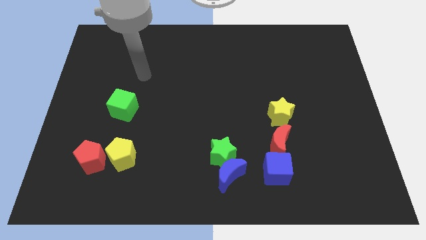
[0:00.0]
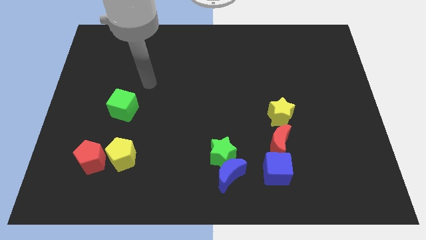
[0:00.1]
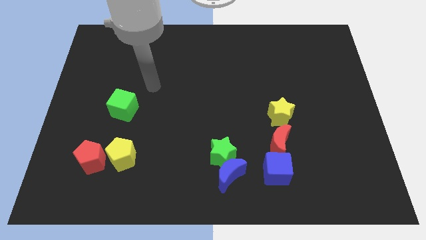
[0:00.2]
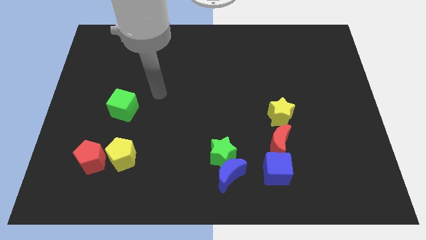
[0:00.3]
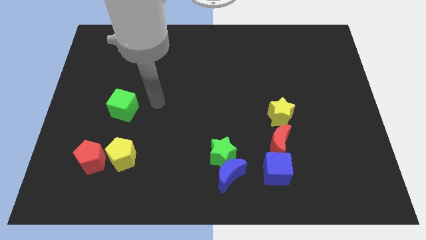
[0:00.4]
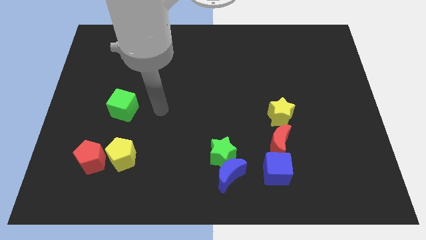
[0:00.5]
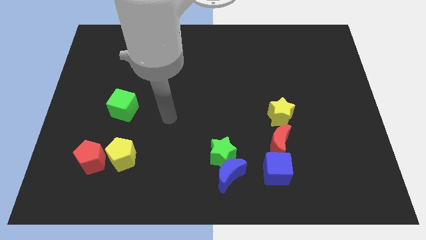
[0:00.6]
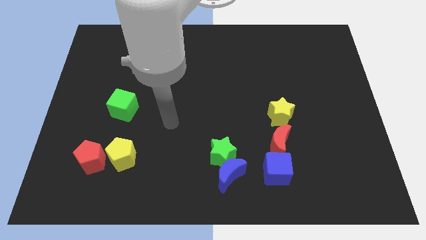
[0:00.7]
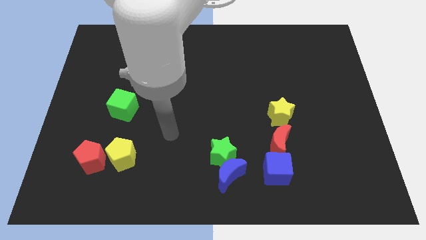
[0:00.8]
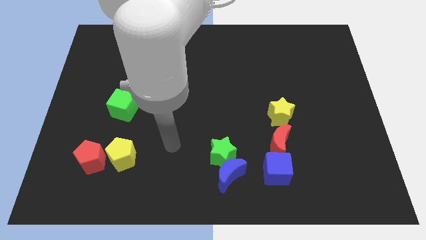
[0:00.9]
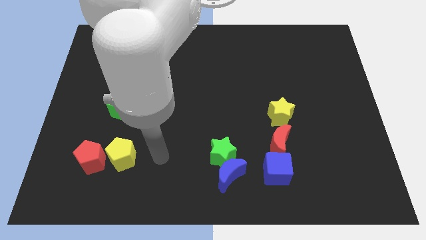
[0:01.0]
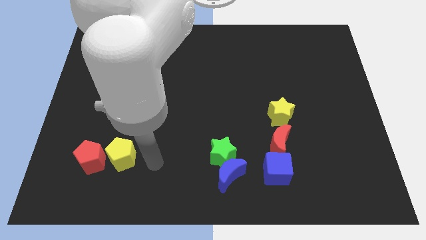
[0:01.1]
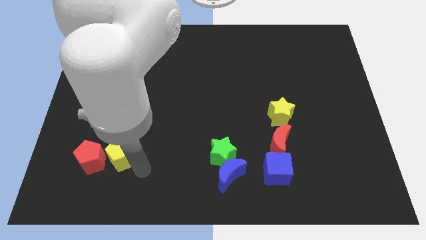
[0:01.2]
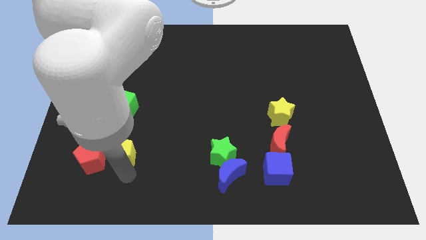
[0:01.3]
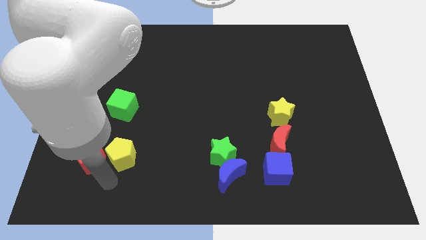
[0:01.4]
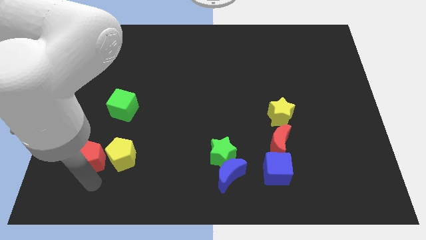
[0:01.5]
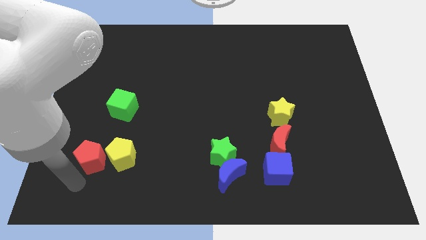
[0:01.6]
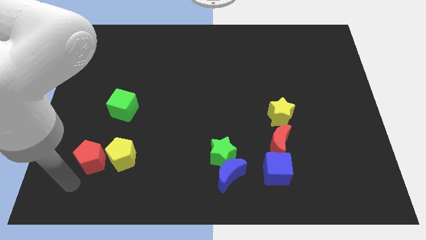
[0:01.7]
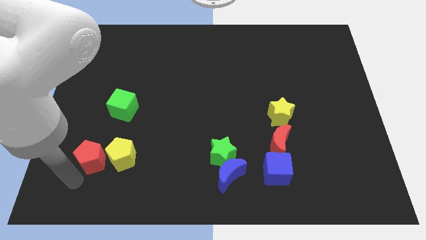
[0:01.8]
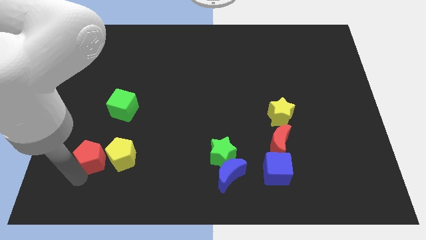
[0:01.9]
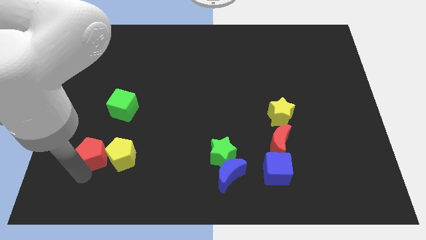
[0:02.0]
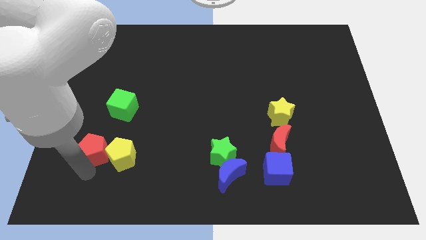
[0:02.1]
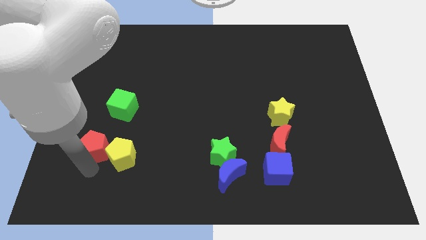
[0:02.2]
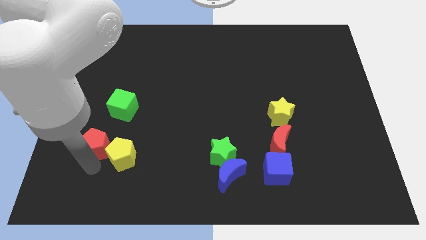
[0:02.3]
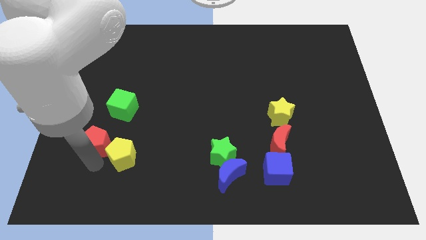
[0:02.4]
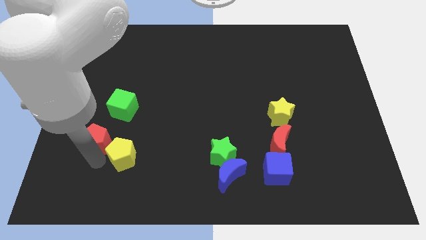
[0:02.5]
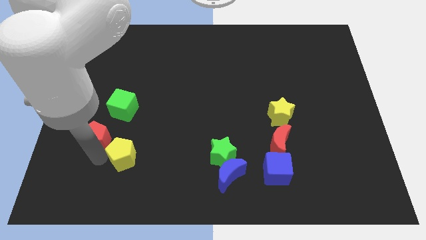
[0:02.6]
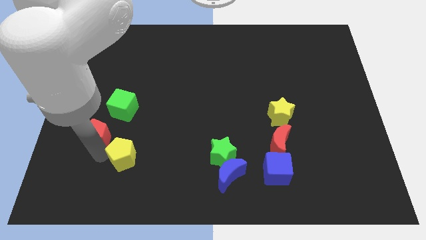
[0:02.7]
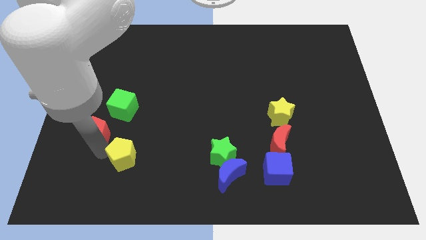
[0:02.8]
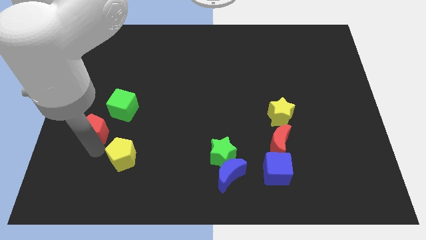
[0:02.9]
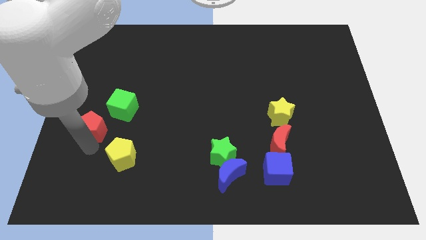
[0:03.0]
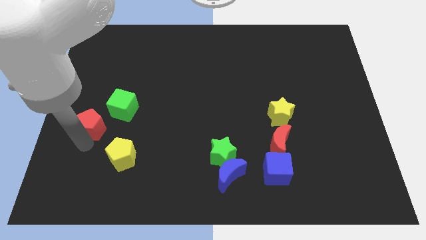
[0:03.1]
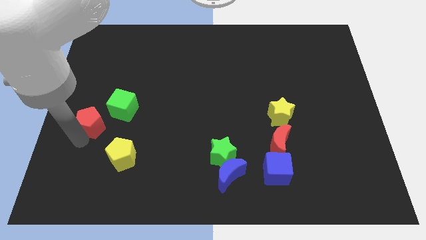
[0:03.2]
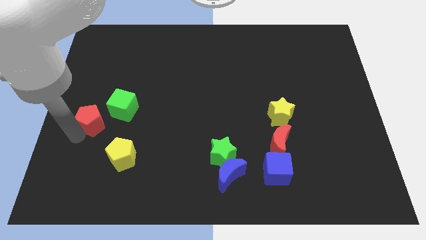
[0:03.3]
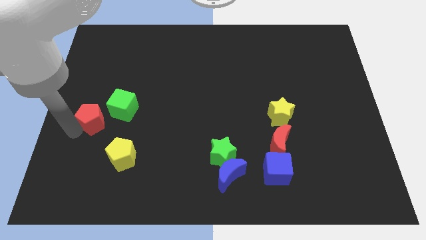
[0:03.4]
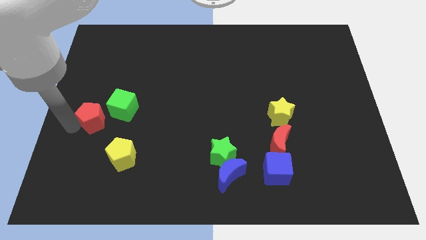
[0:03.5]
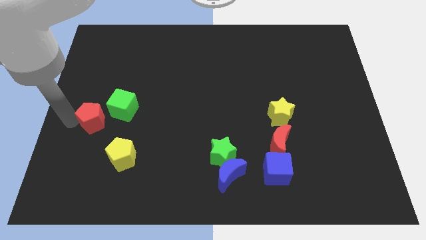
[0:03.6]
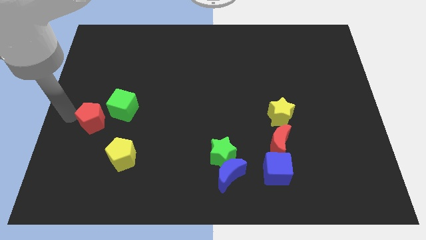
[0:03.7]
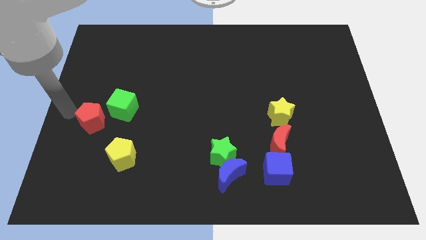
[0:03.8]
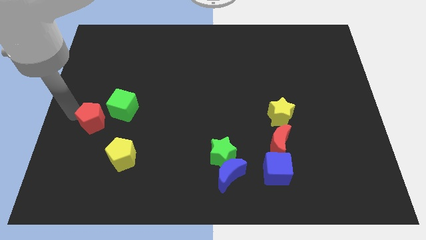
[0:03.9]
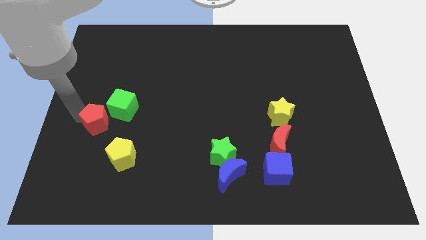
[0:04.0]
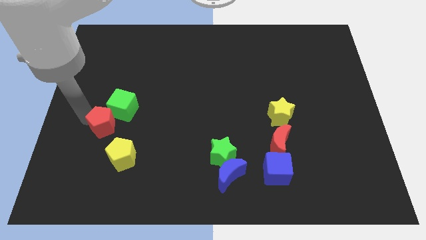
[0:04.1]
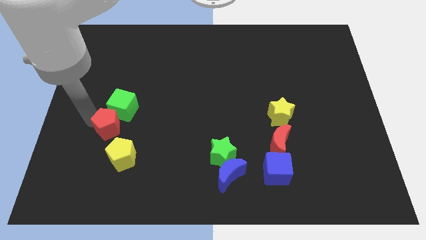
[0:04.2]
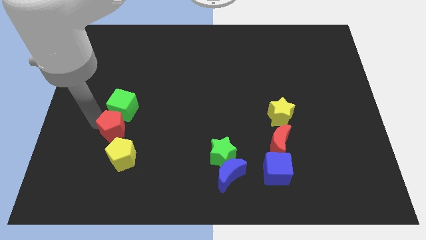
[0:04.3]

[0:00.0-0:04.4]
slightly slide the red pentagon upwards and then to the right

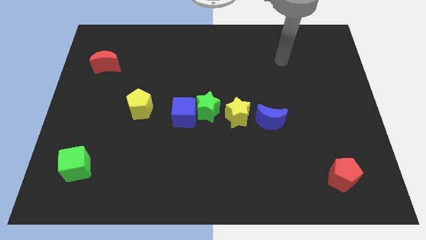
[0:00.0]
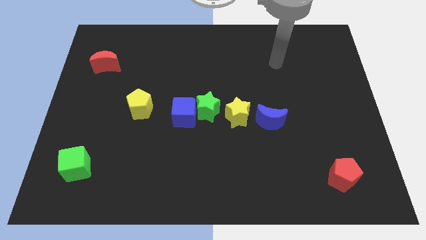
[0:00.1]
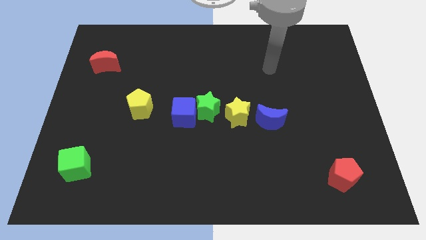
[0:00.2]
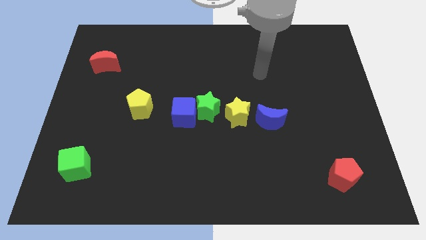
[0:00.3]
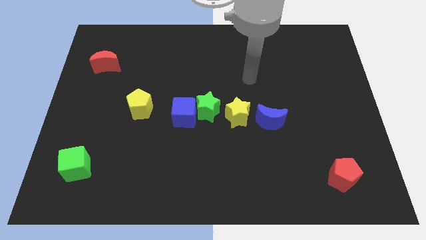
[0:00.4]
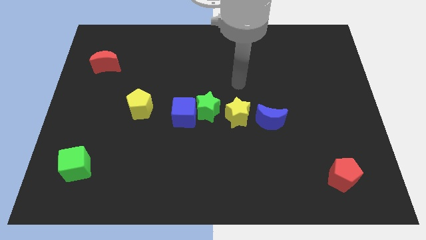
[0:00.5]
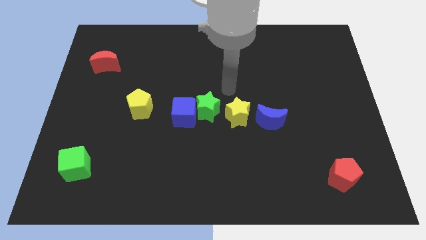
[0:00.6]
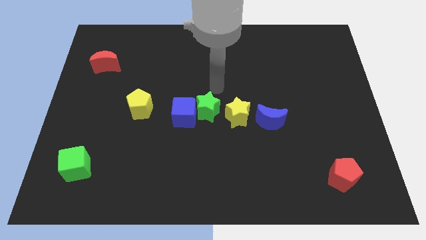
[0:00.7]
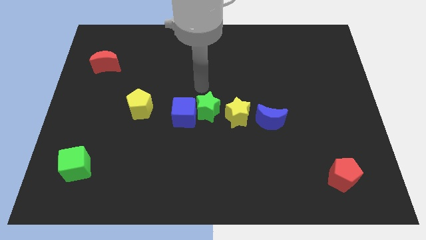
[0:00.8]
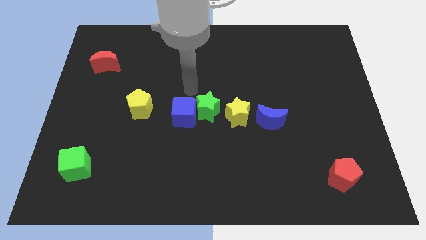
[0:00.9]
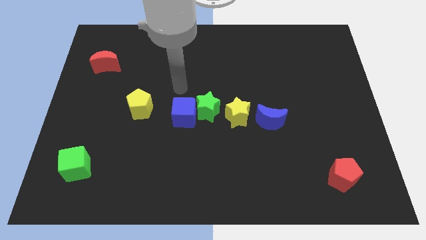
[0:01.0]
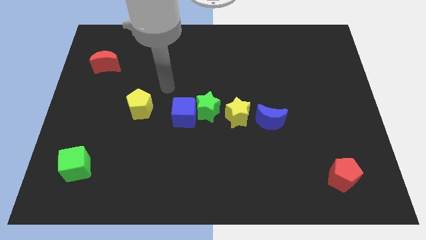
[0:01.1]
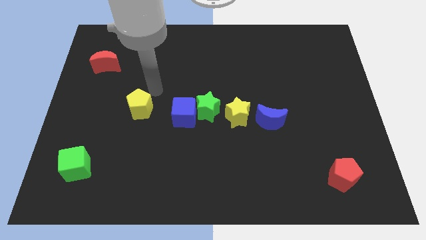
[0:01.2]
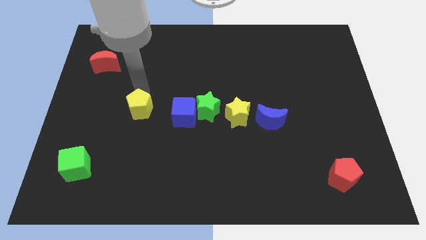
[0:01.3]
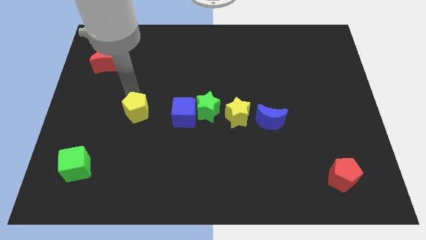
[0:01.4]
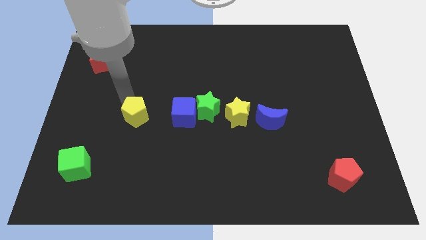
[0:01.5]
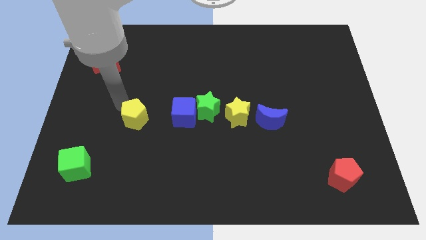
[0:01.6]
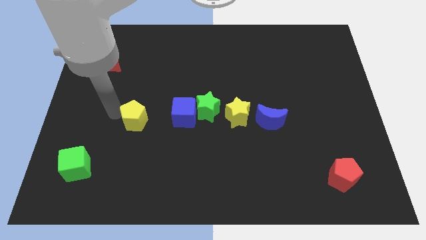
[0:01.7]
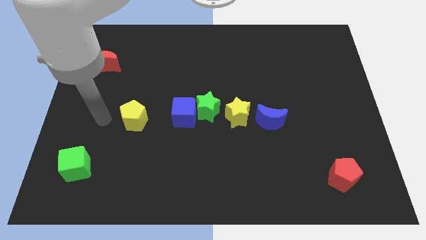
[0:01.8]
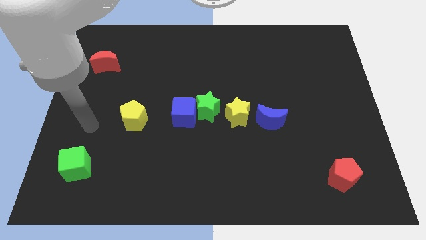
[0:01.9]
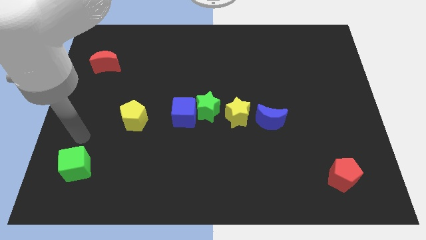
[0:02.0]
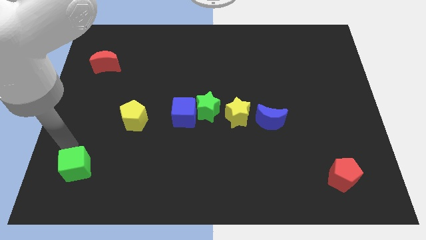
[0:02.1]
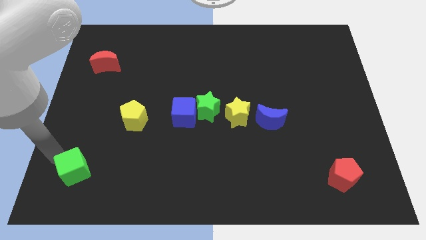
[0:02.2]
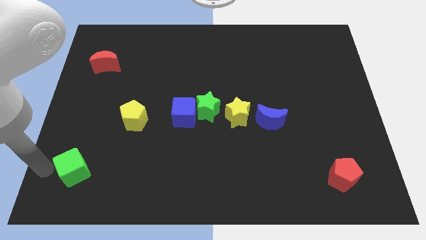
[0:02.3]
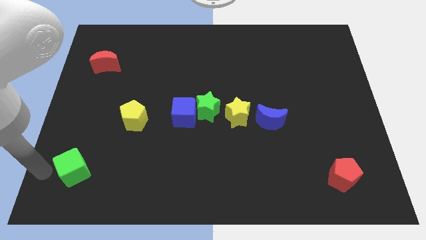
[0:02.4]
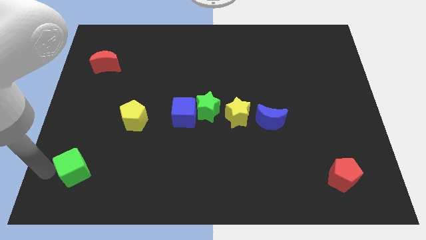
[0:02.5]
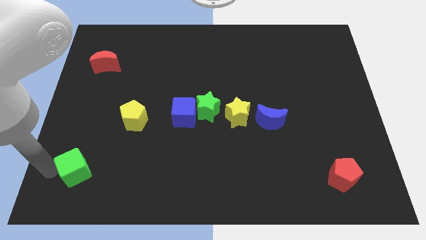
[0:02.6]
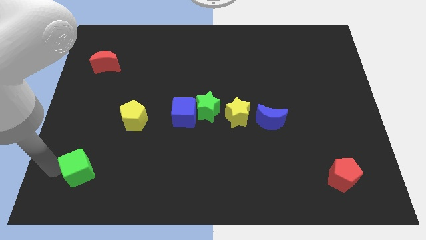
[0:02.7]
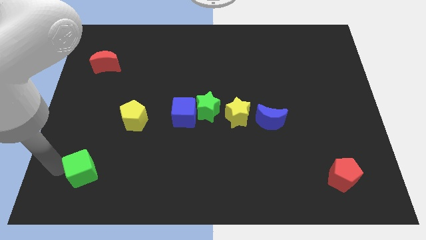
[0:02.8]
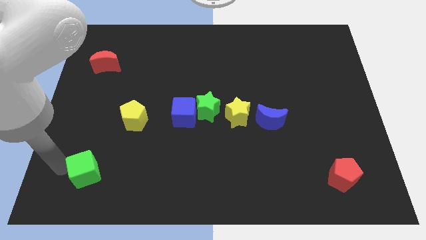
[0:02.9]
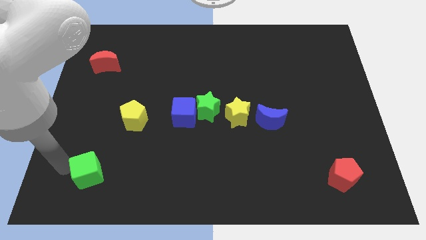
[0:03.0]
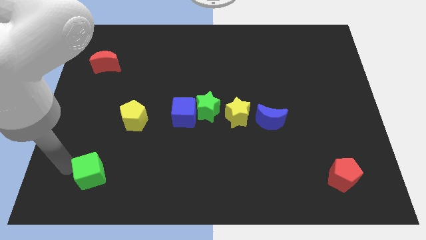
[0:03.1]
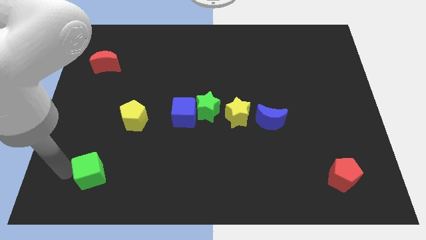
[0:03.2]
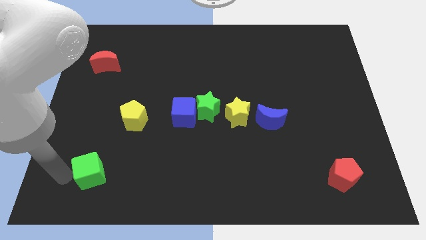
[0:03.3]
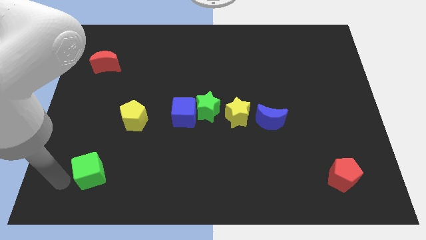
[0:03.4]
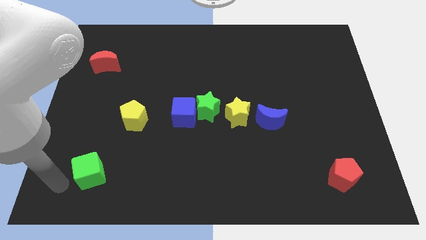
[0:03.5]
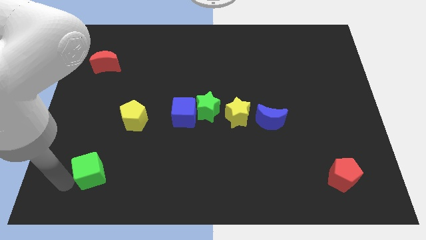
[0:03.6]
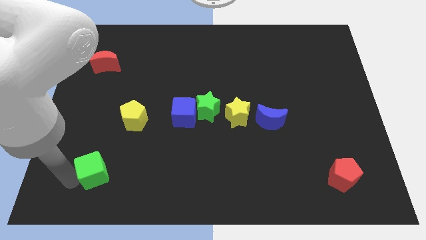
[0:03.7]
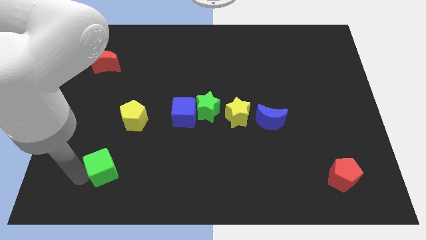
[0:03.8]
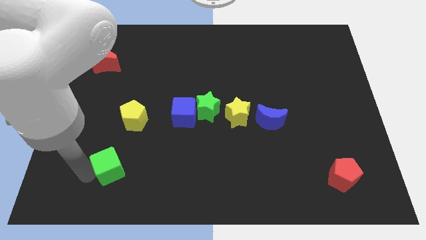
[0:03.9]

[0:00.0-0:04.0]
slightly slide the green cube to the right

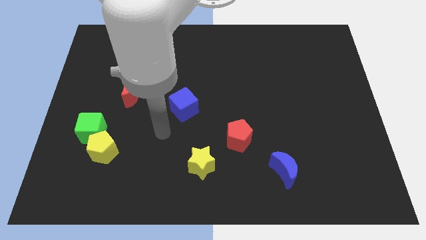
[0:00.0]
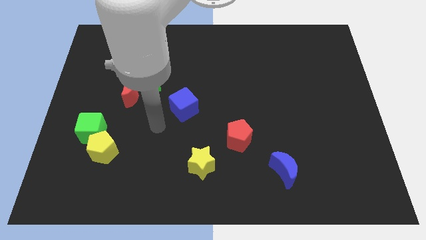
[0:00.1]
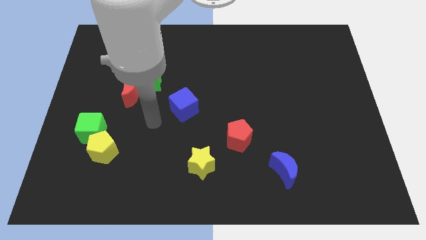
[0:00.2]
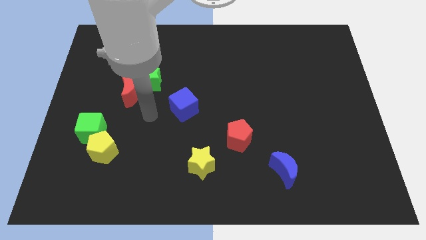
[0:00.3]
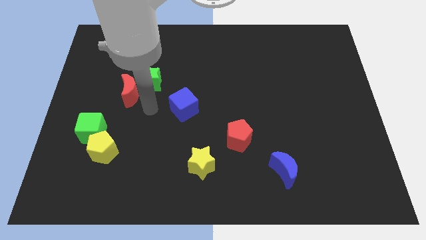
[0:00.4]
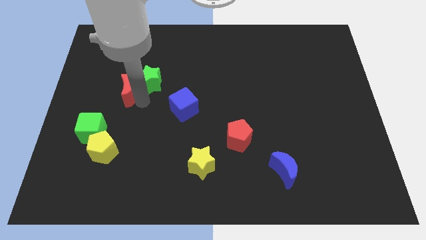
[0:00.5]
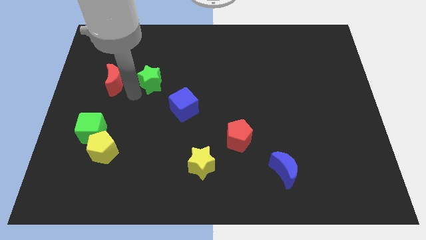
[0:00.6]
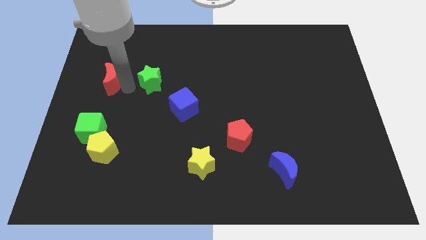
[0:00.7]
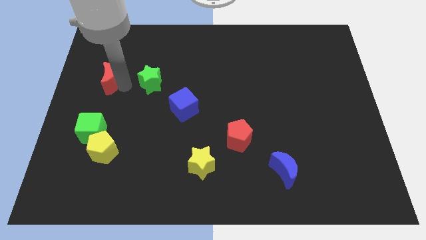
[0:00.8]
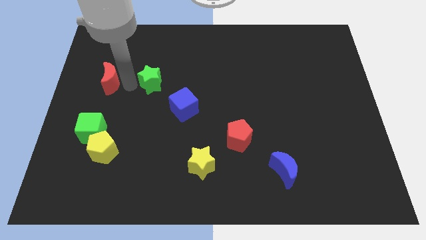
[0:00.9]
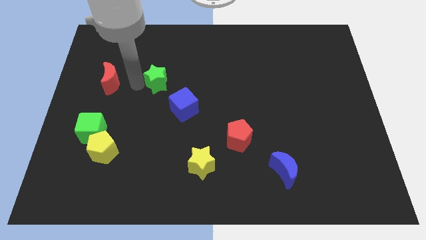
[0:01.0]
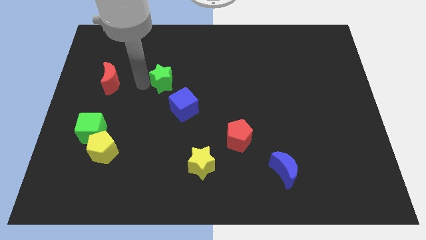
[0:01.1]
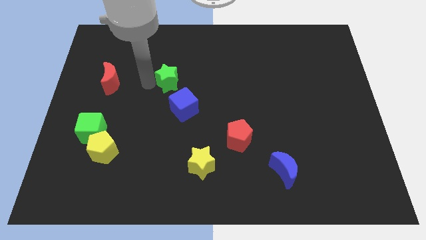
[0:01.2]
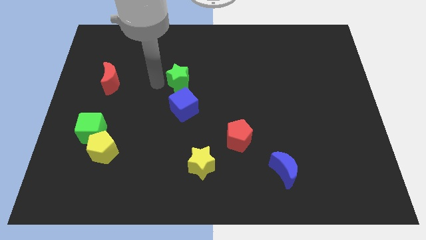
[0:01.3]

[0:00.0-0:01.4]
move the green star a little to the right
